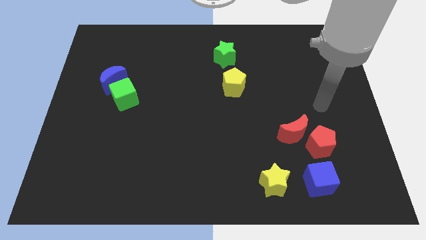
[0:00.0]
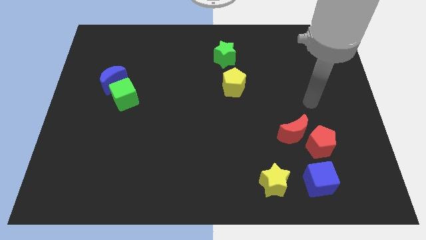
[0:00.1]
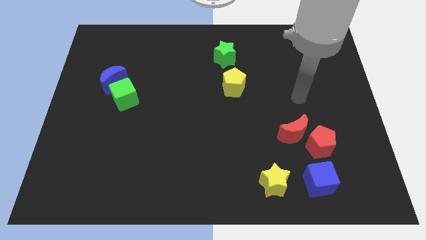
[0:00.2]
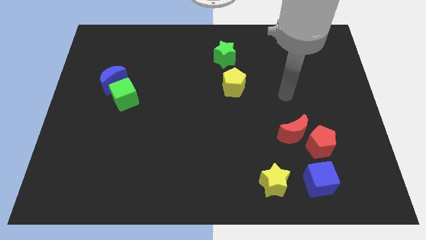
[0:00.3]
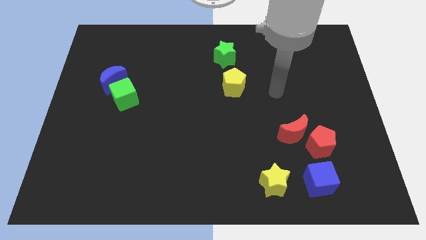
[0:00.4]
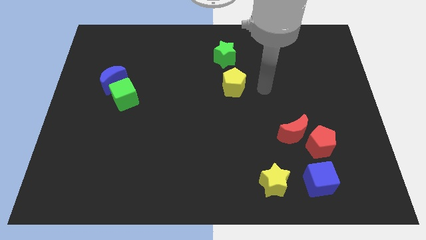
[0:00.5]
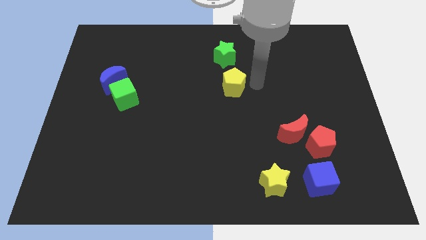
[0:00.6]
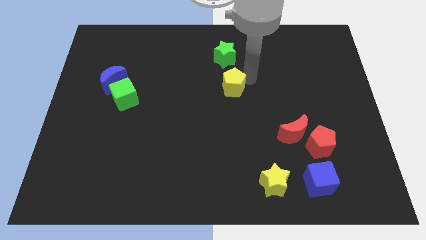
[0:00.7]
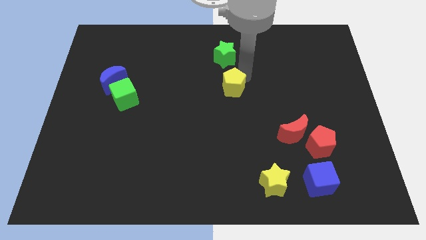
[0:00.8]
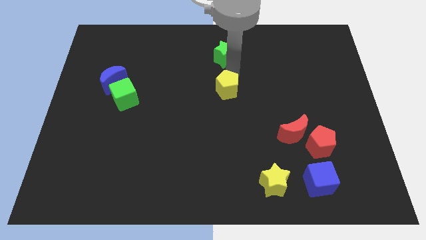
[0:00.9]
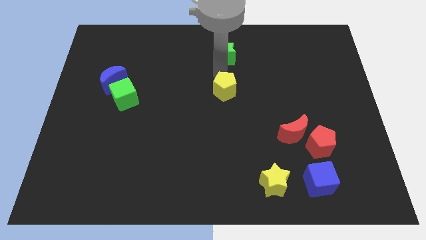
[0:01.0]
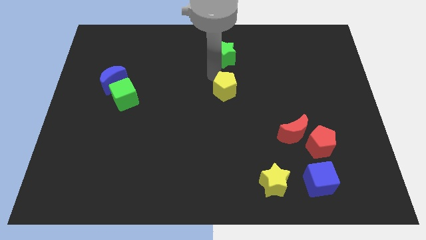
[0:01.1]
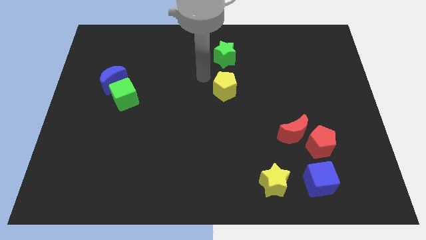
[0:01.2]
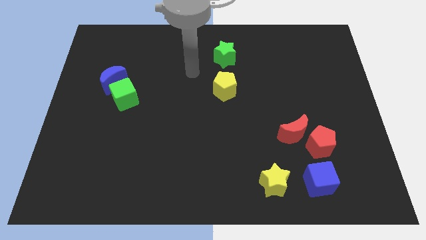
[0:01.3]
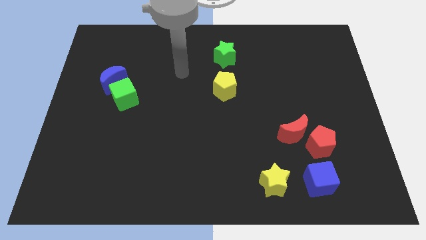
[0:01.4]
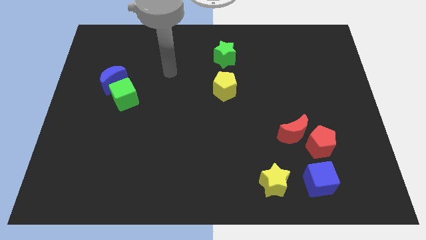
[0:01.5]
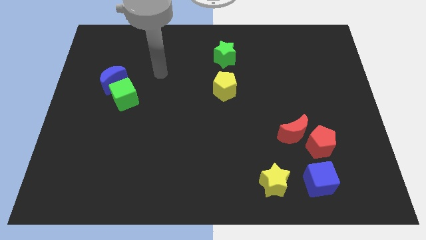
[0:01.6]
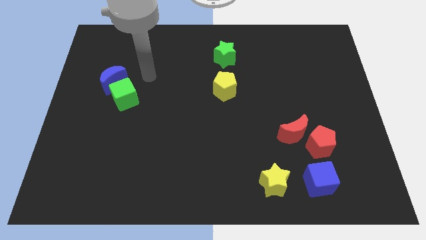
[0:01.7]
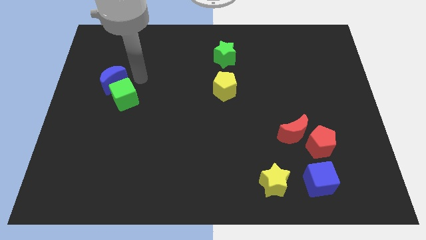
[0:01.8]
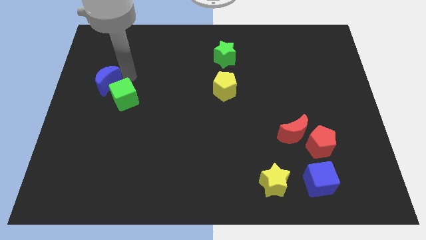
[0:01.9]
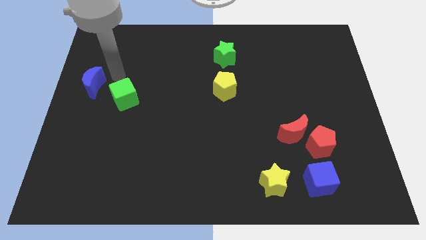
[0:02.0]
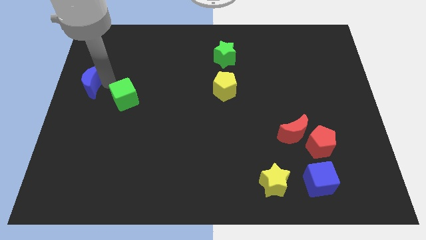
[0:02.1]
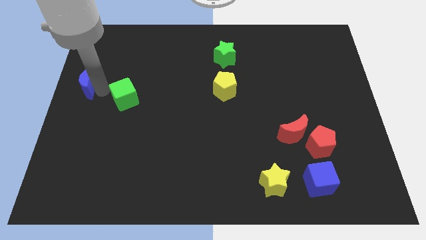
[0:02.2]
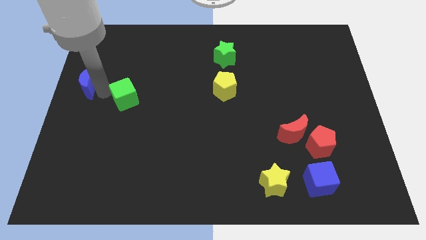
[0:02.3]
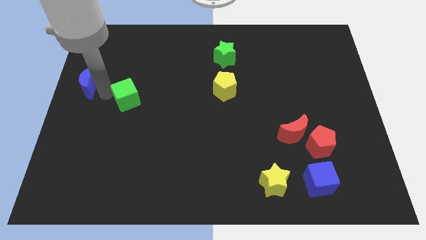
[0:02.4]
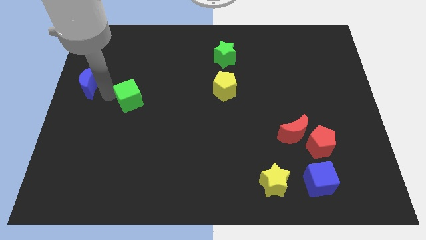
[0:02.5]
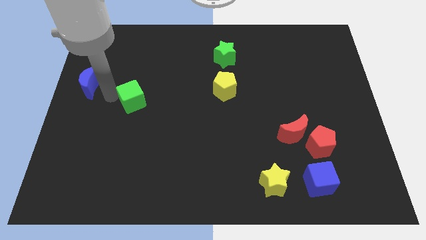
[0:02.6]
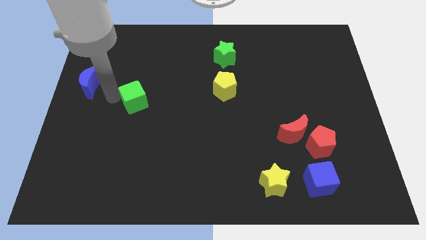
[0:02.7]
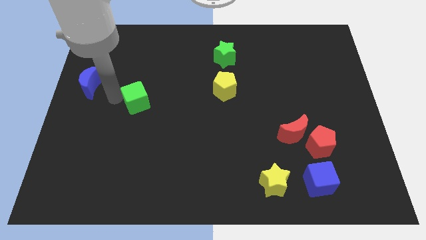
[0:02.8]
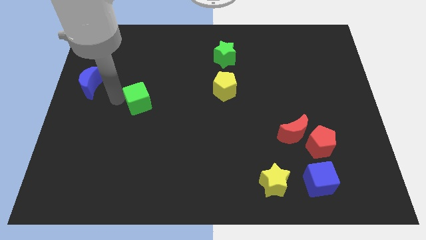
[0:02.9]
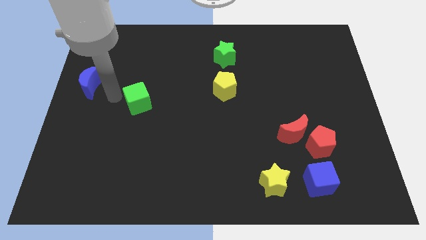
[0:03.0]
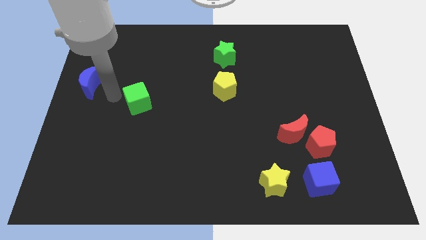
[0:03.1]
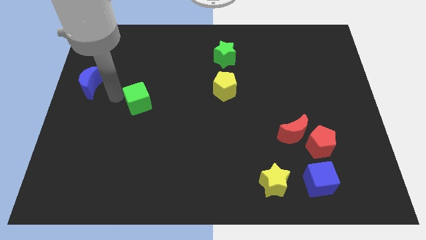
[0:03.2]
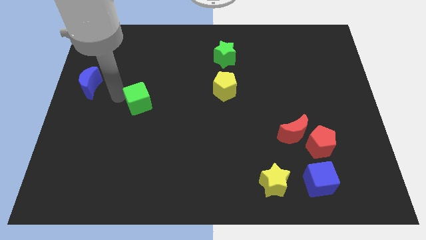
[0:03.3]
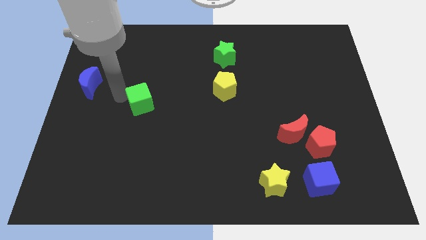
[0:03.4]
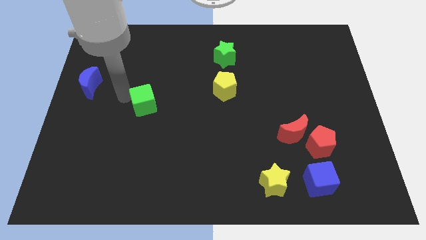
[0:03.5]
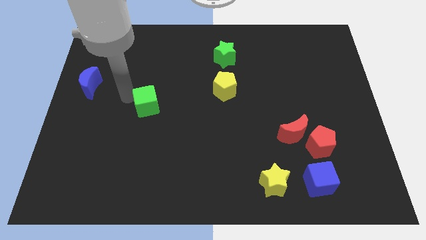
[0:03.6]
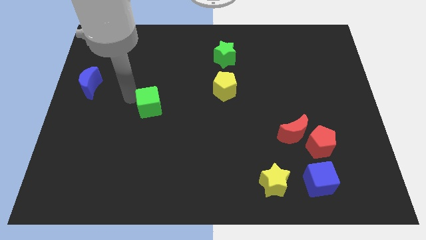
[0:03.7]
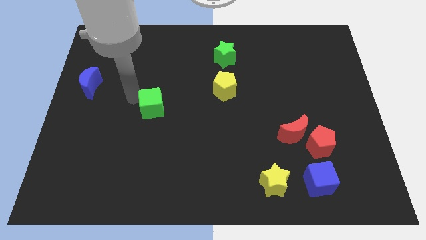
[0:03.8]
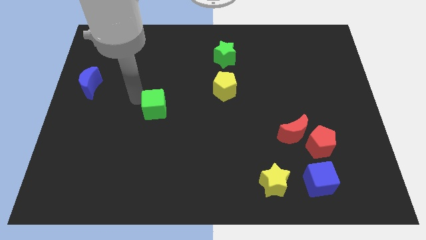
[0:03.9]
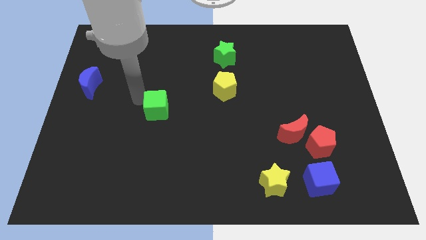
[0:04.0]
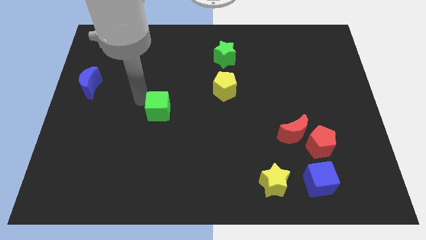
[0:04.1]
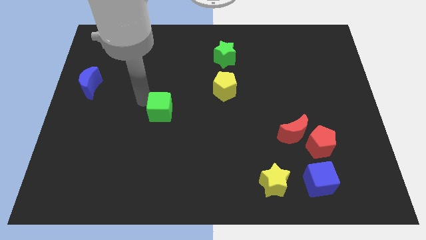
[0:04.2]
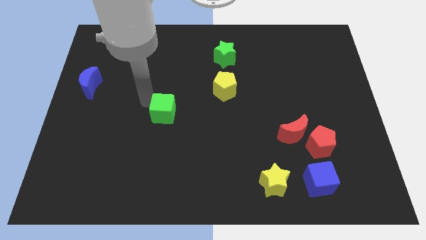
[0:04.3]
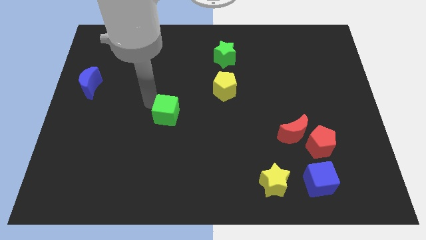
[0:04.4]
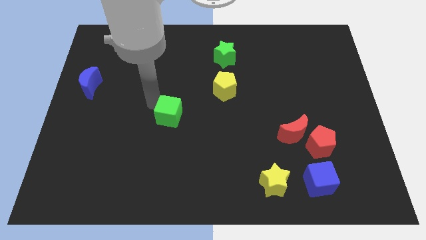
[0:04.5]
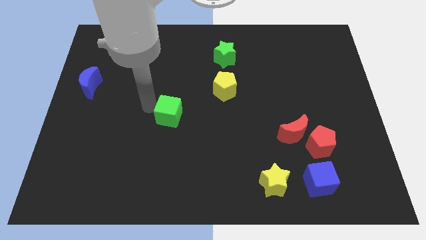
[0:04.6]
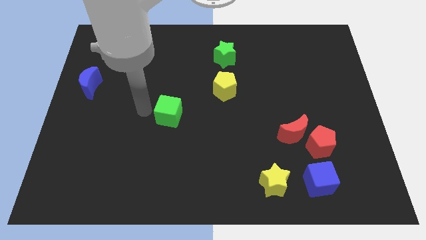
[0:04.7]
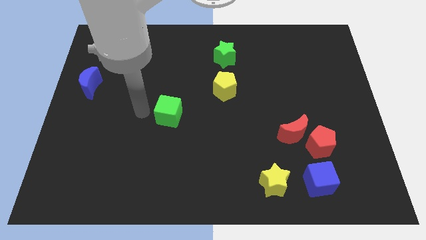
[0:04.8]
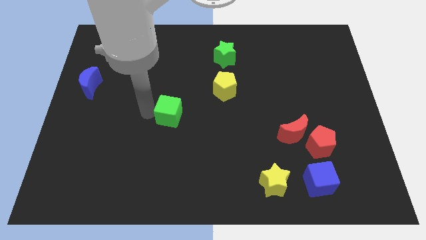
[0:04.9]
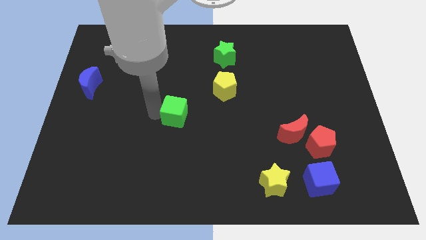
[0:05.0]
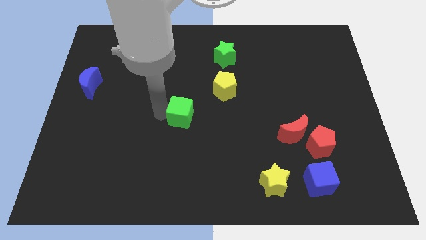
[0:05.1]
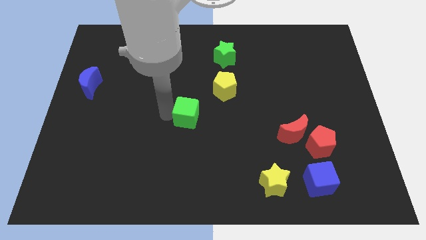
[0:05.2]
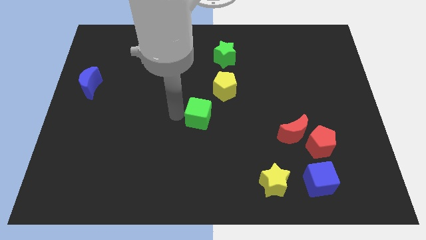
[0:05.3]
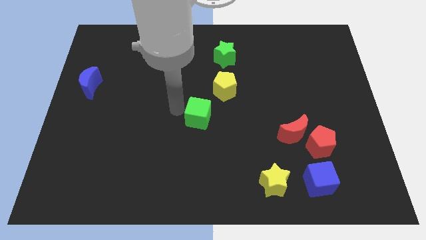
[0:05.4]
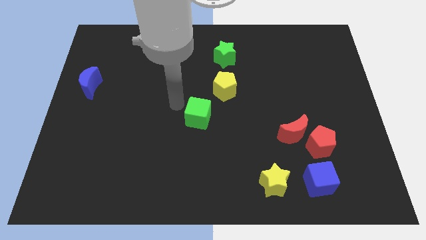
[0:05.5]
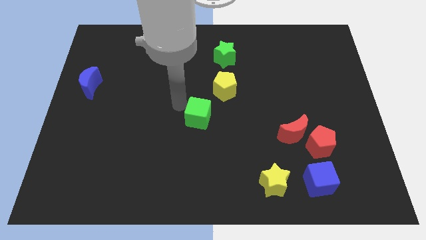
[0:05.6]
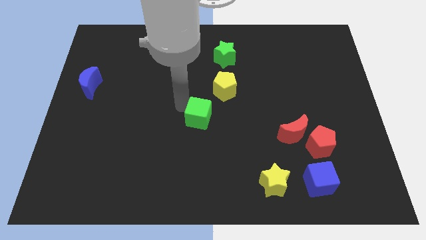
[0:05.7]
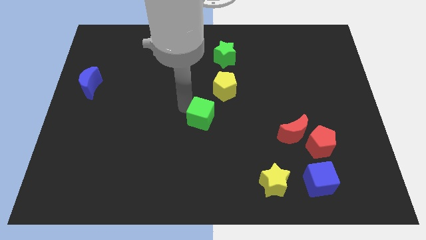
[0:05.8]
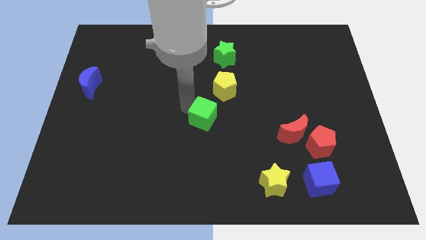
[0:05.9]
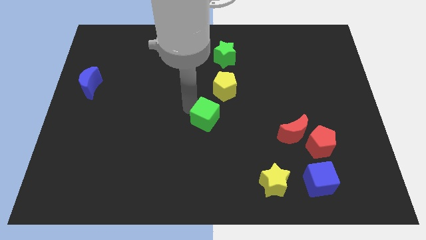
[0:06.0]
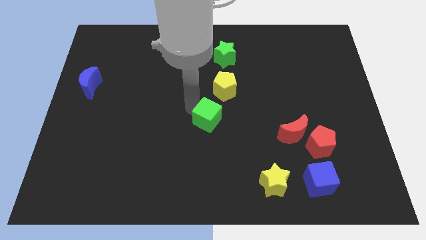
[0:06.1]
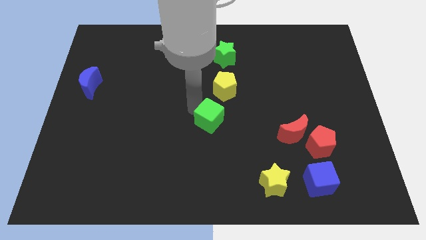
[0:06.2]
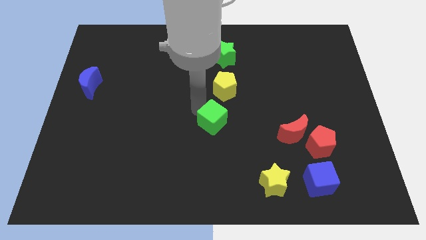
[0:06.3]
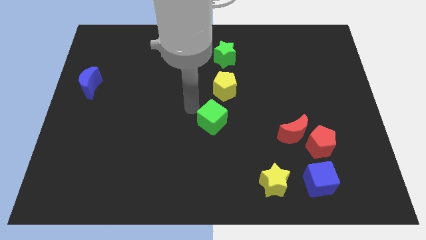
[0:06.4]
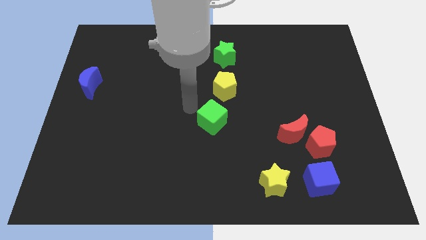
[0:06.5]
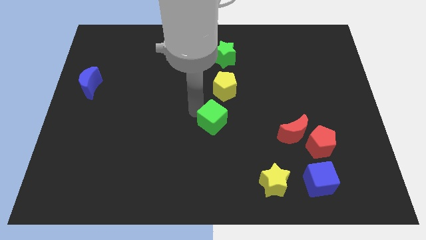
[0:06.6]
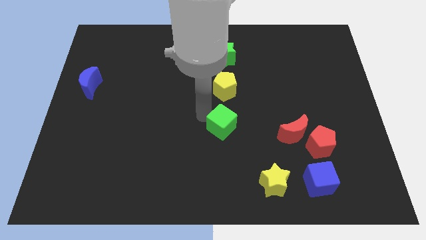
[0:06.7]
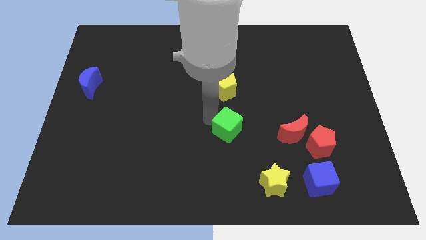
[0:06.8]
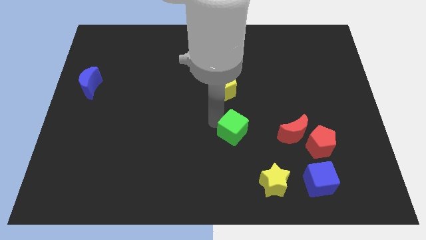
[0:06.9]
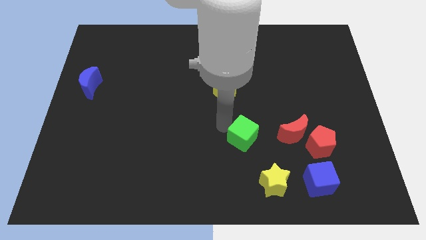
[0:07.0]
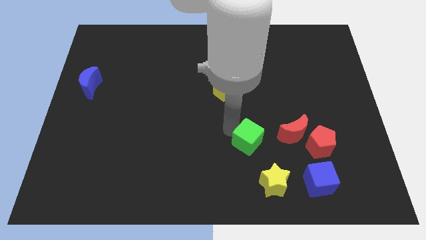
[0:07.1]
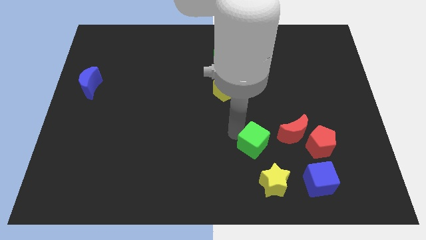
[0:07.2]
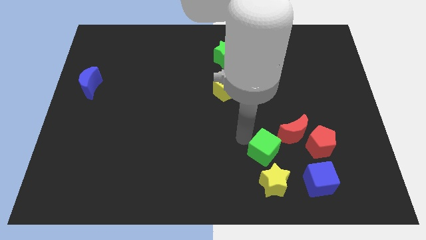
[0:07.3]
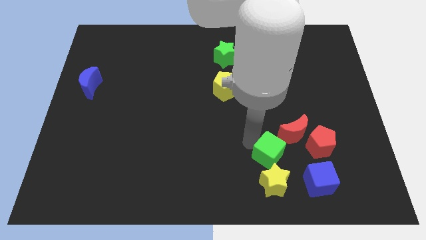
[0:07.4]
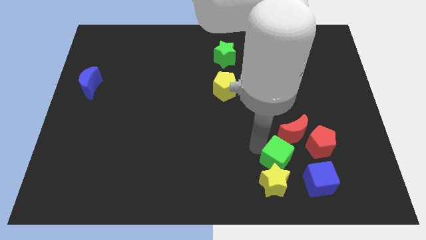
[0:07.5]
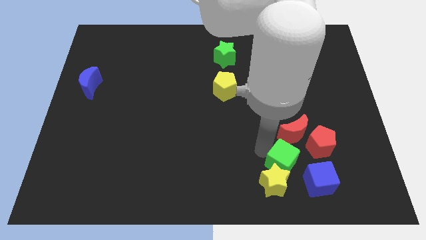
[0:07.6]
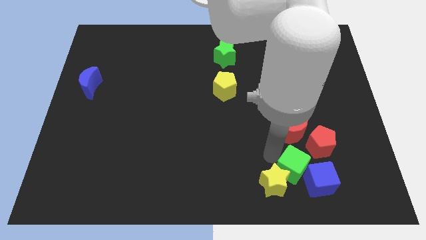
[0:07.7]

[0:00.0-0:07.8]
put the green cube to the blue cube
